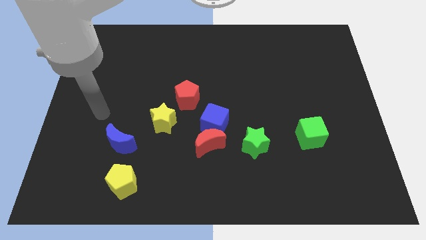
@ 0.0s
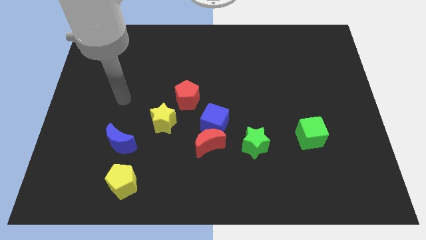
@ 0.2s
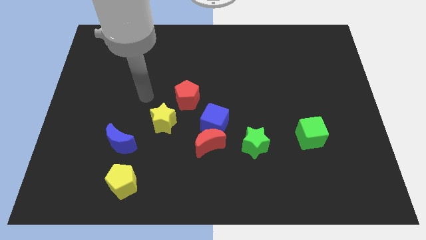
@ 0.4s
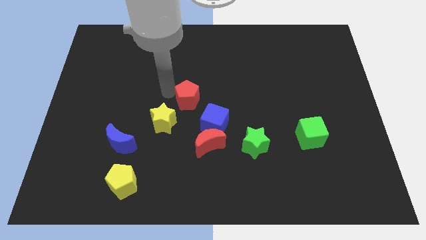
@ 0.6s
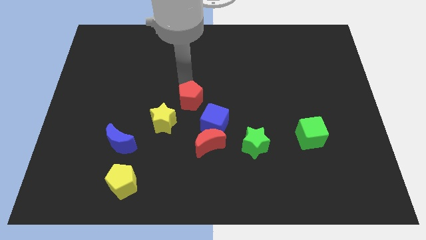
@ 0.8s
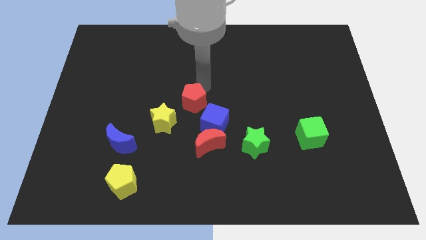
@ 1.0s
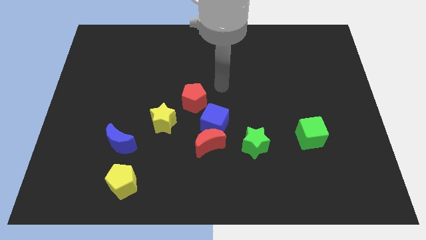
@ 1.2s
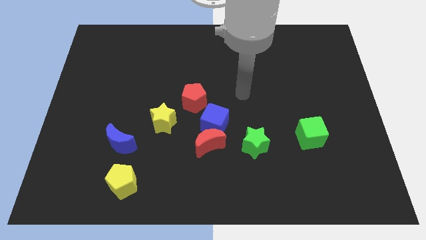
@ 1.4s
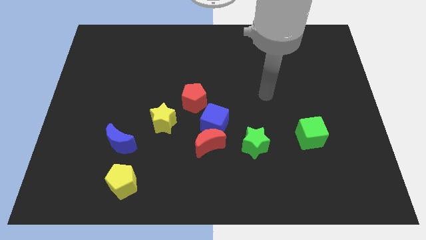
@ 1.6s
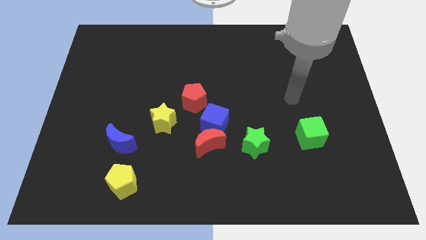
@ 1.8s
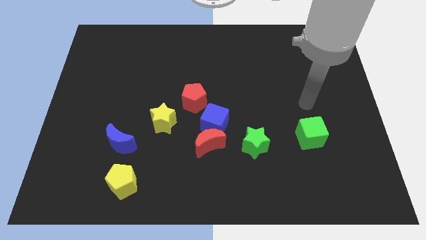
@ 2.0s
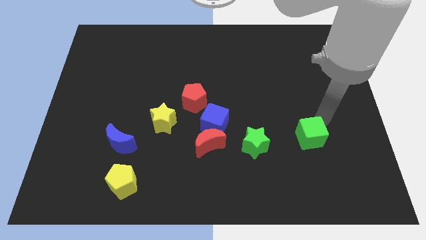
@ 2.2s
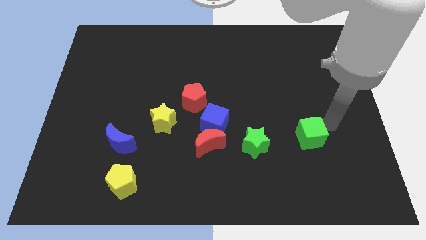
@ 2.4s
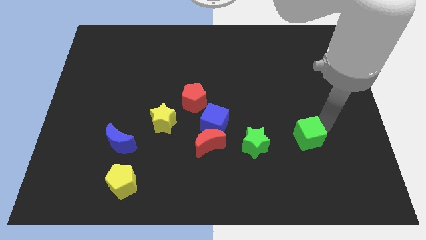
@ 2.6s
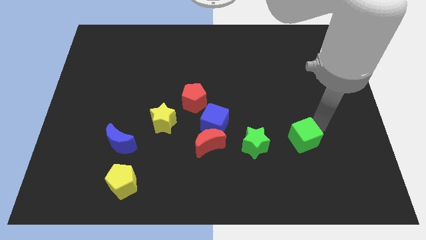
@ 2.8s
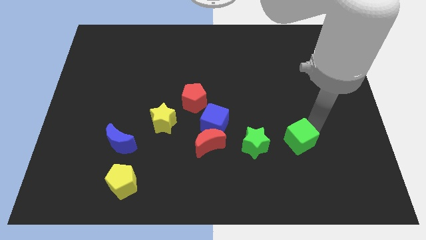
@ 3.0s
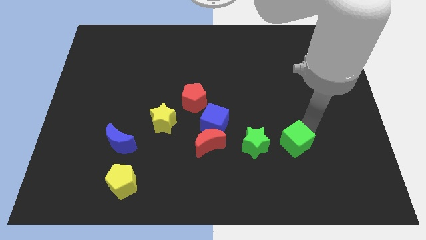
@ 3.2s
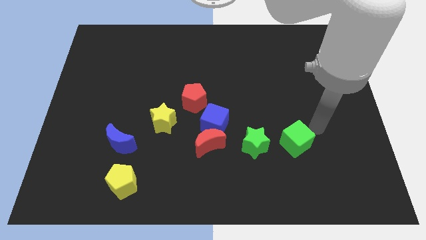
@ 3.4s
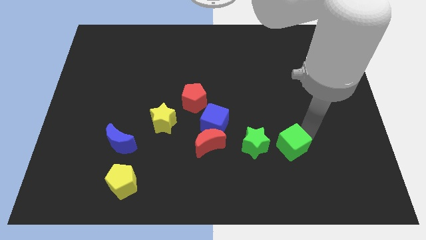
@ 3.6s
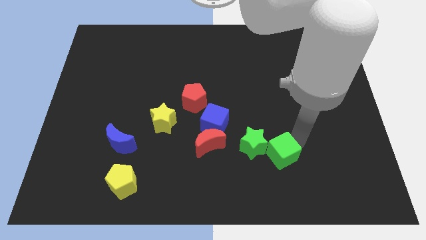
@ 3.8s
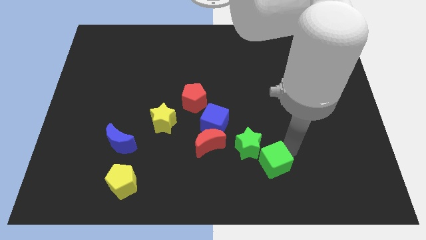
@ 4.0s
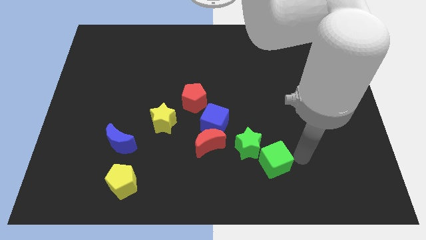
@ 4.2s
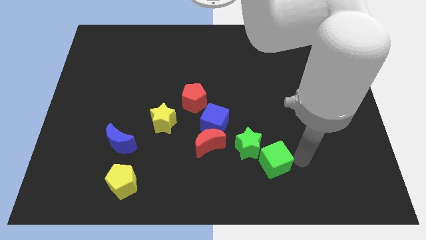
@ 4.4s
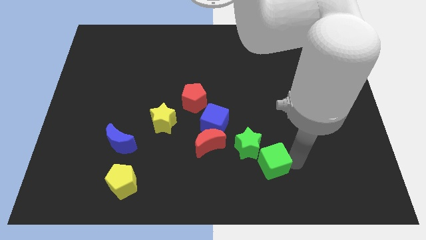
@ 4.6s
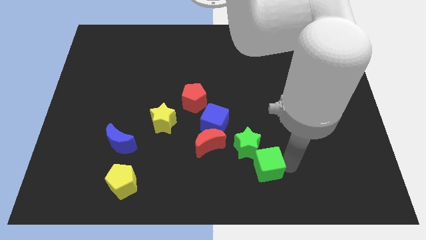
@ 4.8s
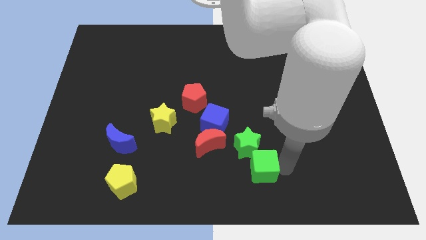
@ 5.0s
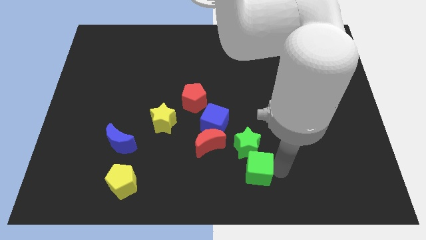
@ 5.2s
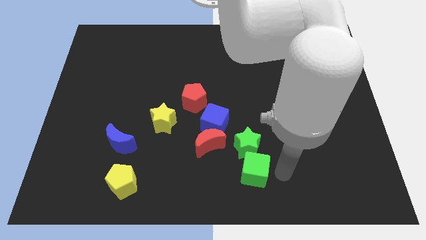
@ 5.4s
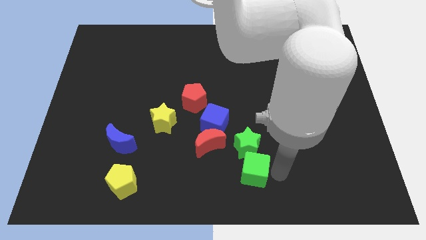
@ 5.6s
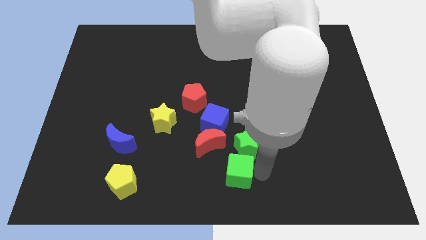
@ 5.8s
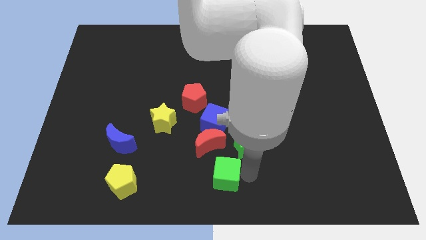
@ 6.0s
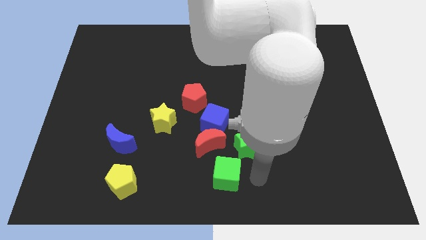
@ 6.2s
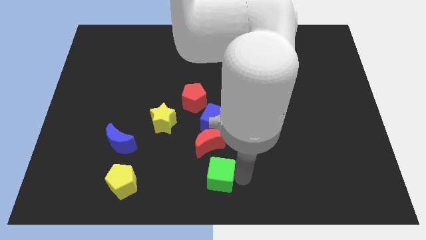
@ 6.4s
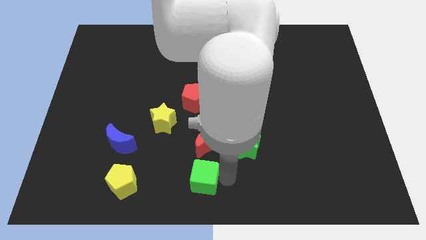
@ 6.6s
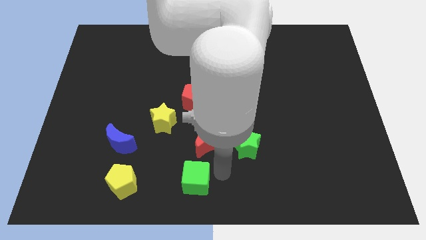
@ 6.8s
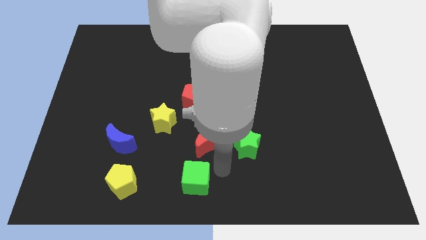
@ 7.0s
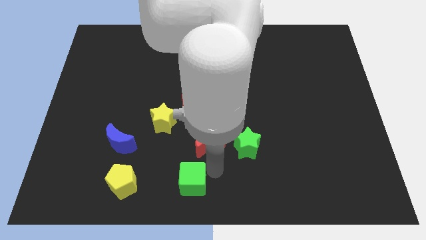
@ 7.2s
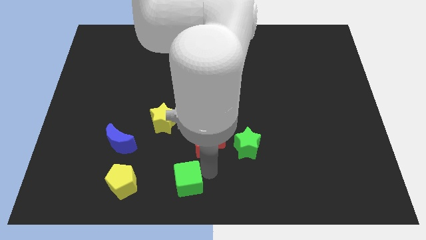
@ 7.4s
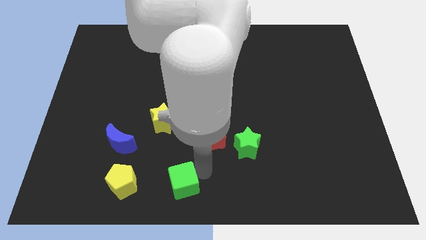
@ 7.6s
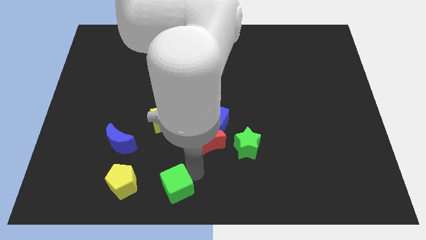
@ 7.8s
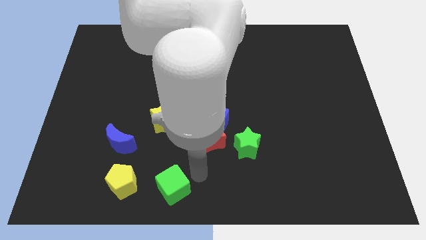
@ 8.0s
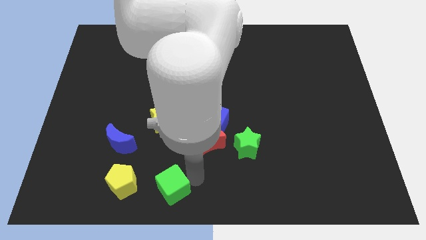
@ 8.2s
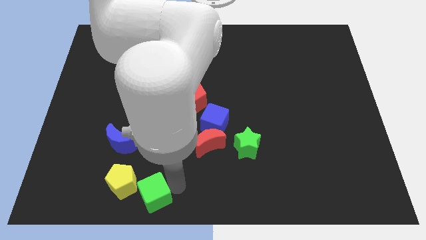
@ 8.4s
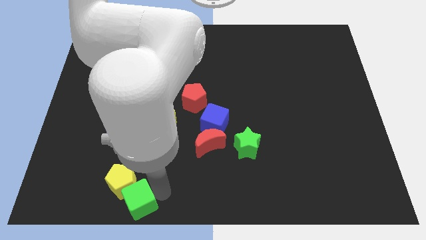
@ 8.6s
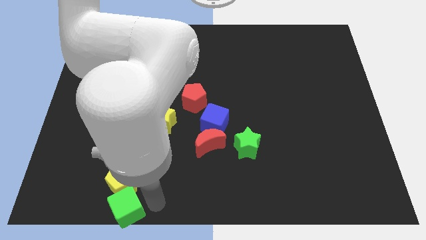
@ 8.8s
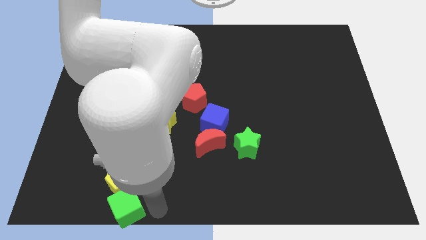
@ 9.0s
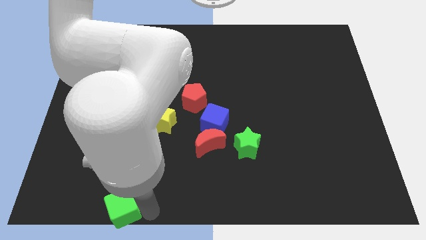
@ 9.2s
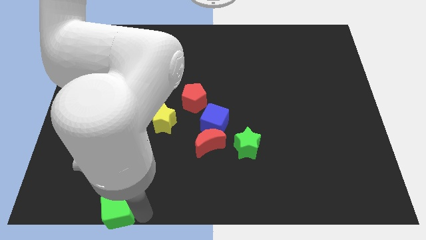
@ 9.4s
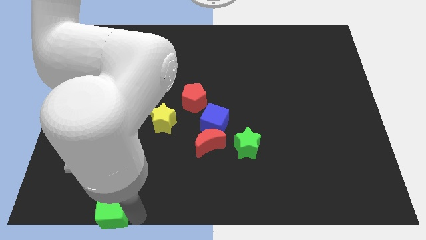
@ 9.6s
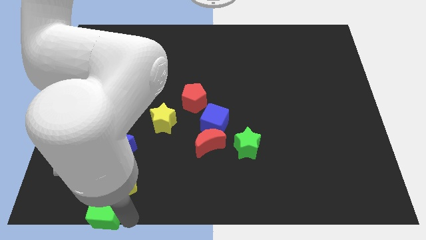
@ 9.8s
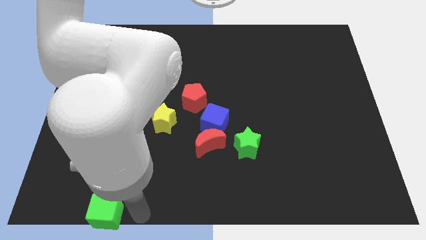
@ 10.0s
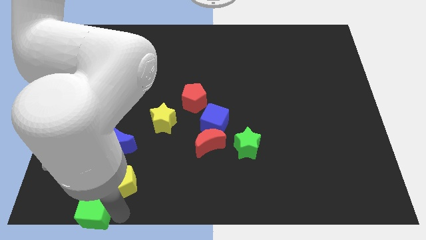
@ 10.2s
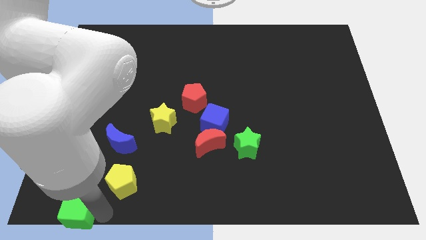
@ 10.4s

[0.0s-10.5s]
move the green cube to the bottom left of the board

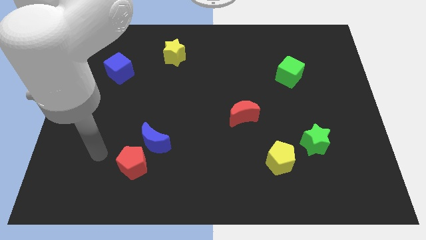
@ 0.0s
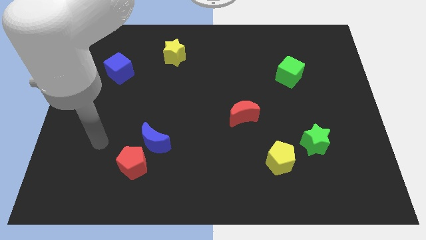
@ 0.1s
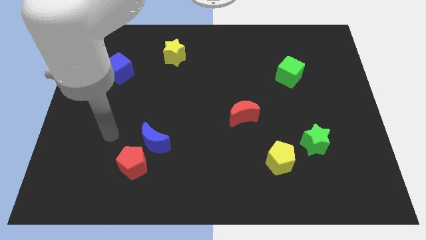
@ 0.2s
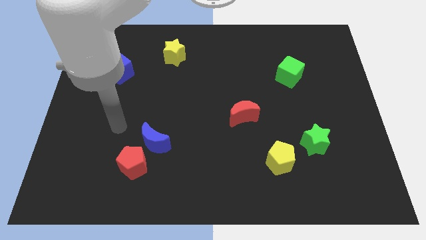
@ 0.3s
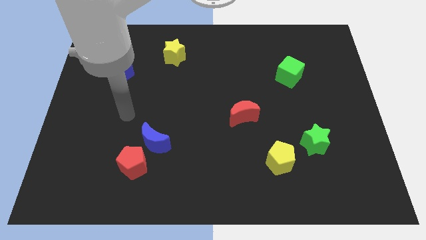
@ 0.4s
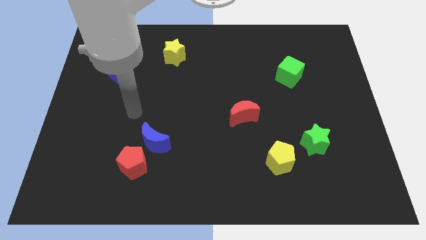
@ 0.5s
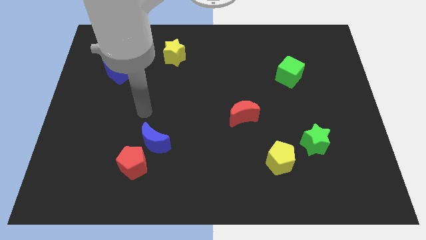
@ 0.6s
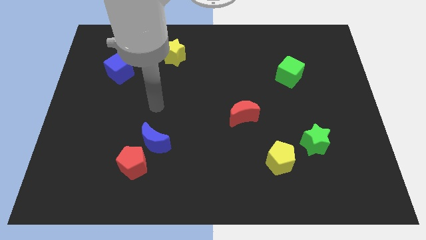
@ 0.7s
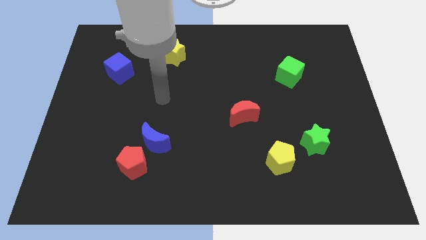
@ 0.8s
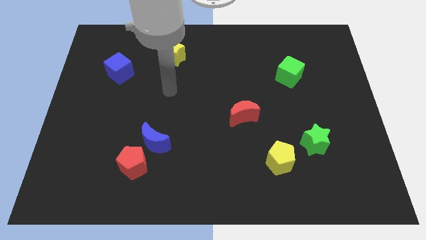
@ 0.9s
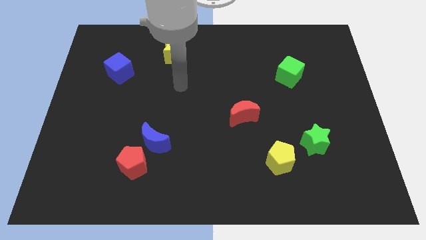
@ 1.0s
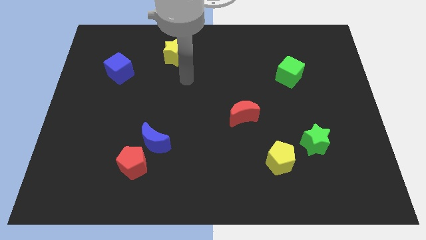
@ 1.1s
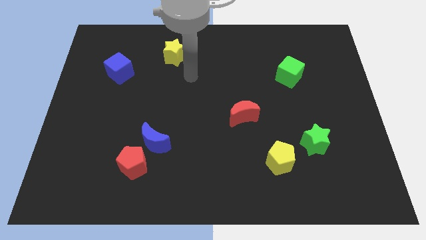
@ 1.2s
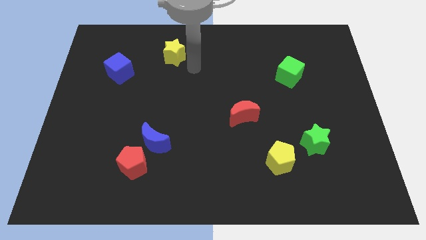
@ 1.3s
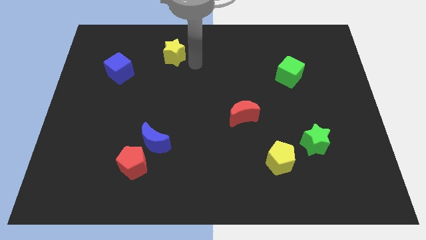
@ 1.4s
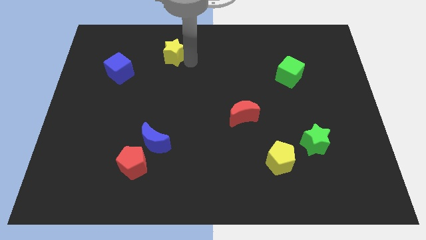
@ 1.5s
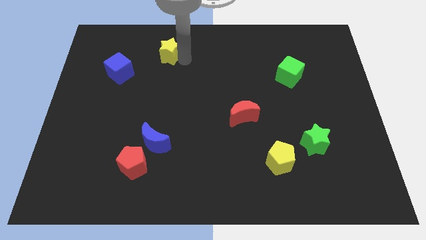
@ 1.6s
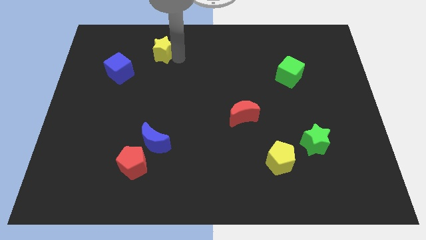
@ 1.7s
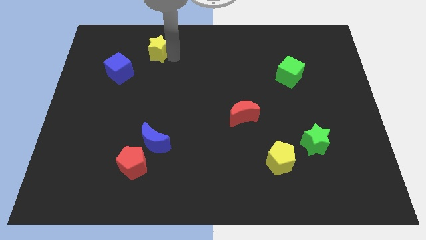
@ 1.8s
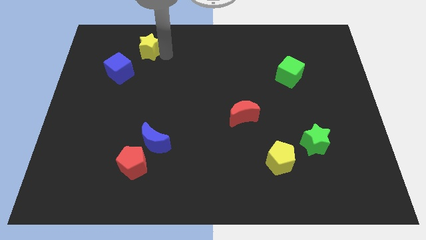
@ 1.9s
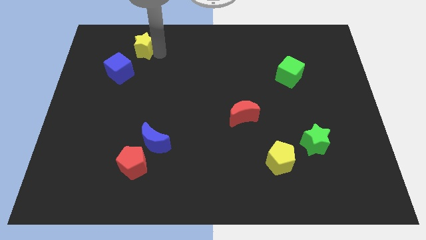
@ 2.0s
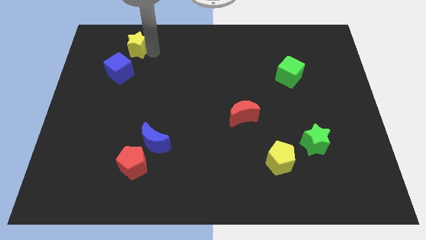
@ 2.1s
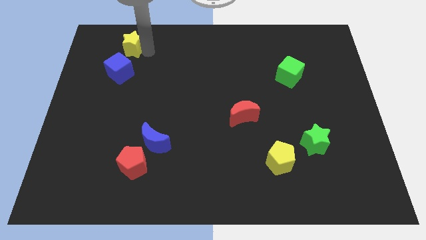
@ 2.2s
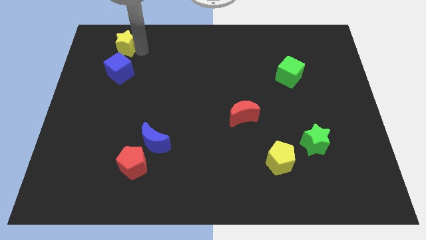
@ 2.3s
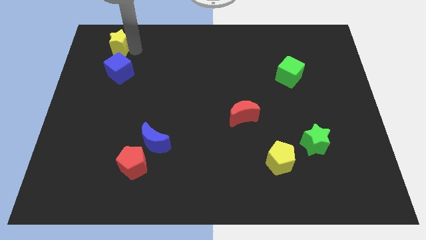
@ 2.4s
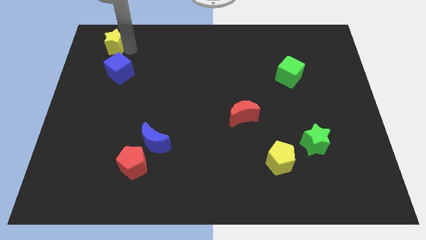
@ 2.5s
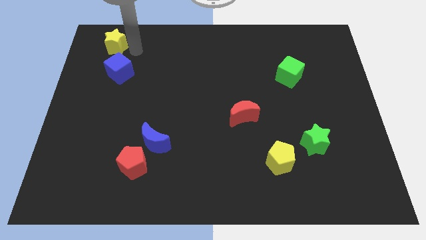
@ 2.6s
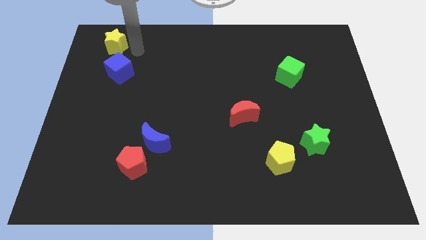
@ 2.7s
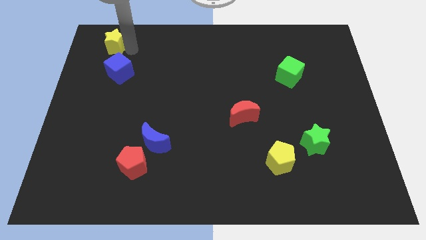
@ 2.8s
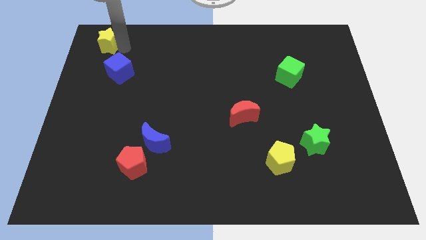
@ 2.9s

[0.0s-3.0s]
slide the yellow star to the upper left corner
